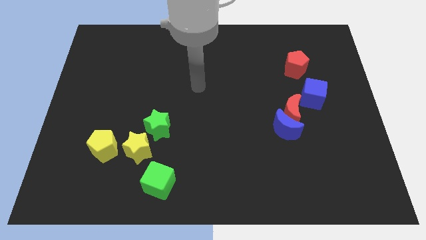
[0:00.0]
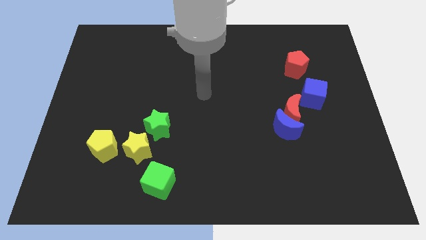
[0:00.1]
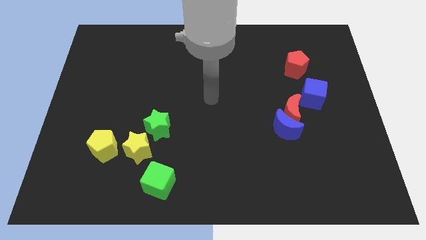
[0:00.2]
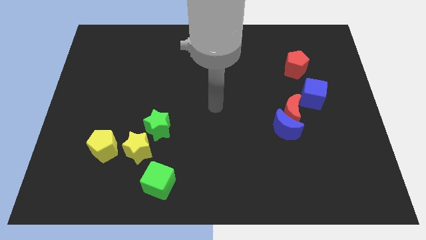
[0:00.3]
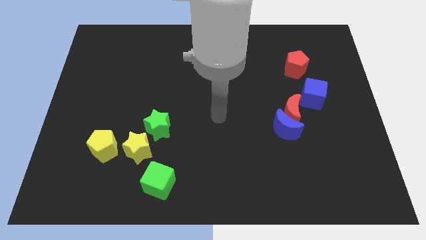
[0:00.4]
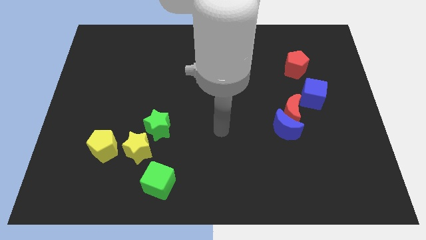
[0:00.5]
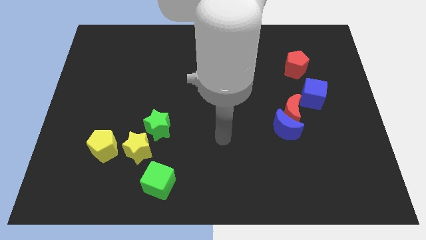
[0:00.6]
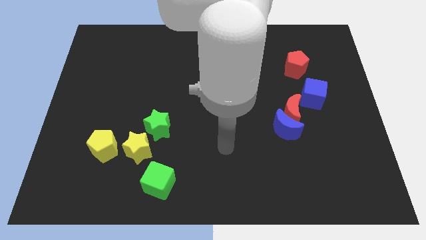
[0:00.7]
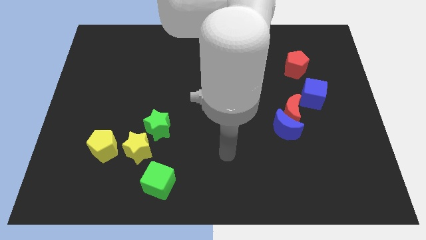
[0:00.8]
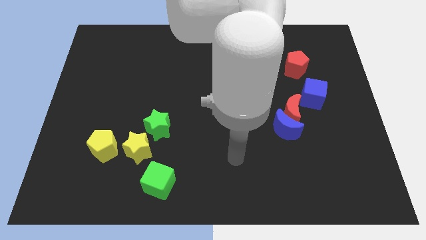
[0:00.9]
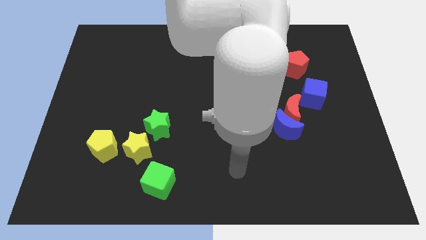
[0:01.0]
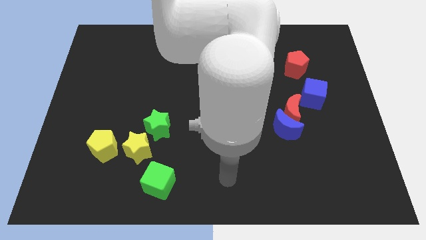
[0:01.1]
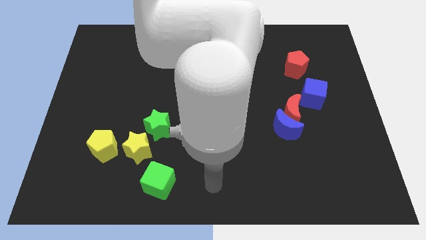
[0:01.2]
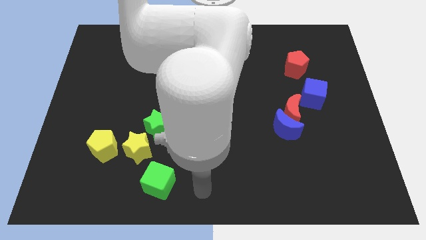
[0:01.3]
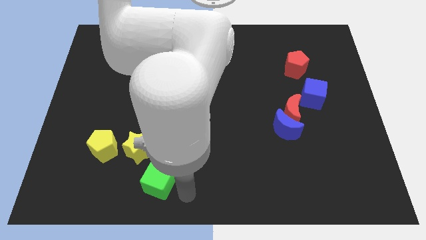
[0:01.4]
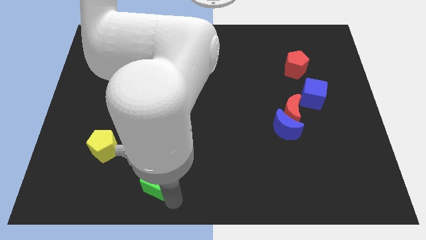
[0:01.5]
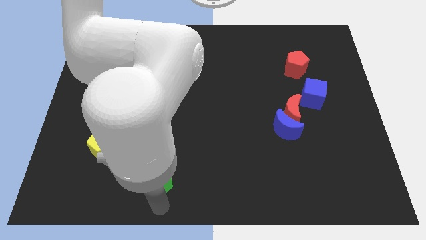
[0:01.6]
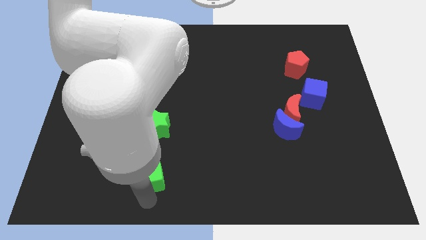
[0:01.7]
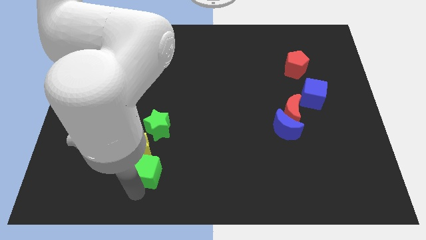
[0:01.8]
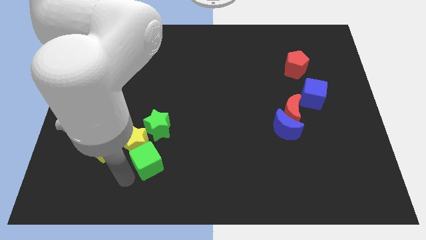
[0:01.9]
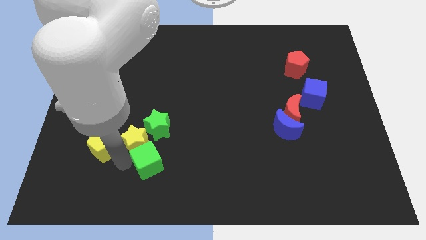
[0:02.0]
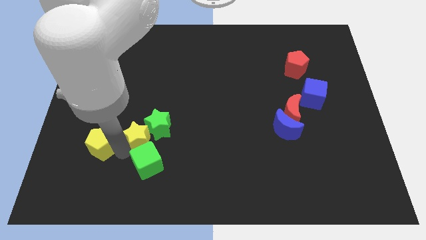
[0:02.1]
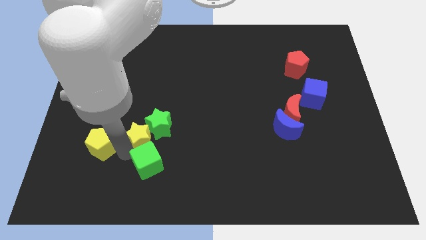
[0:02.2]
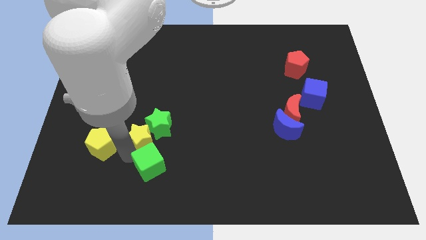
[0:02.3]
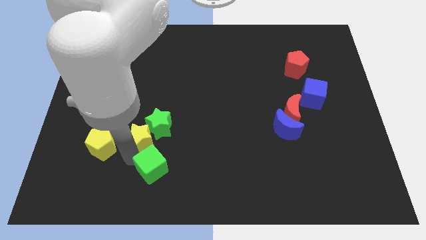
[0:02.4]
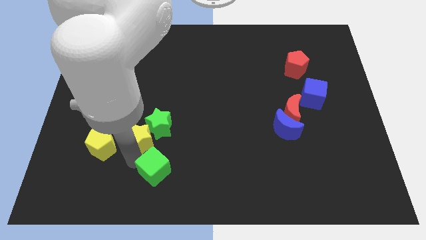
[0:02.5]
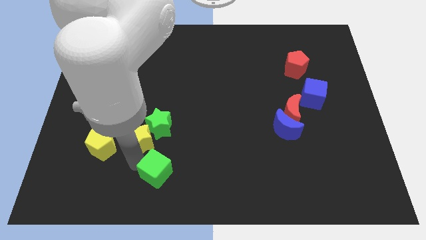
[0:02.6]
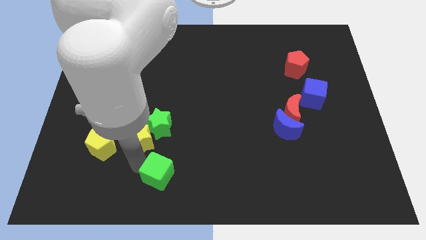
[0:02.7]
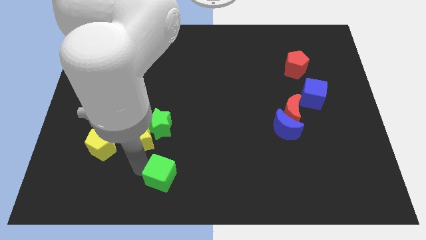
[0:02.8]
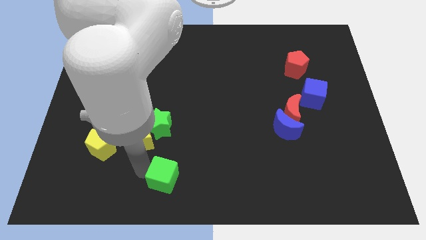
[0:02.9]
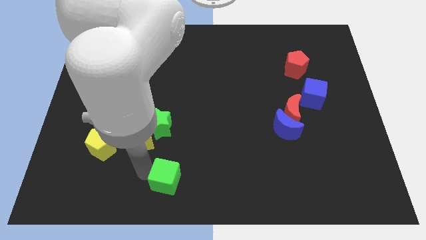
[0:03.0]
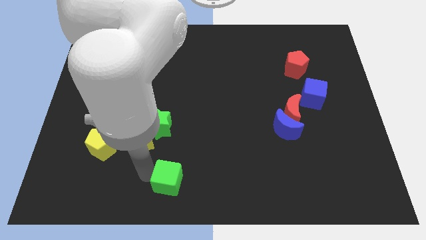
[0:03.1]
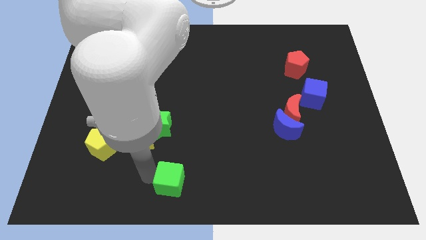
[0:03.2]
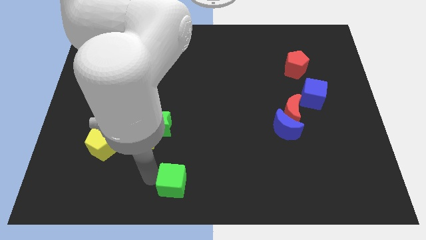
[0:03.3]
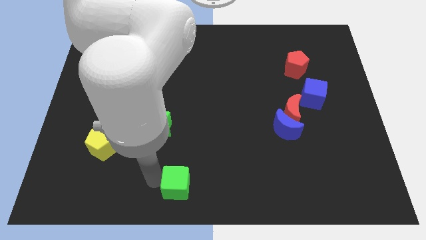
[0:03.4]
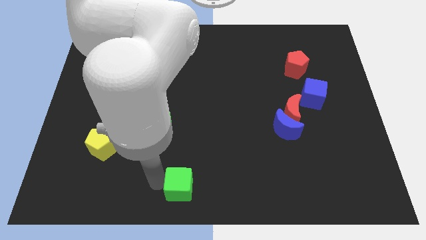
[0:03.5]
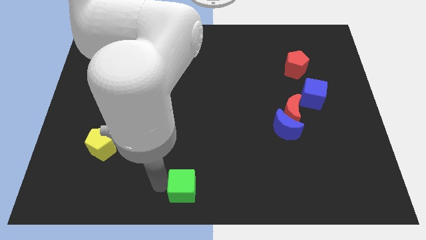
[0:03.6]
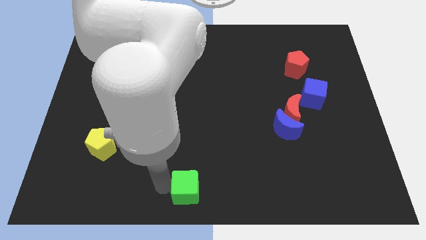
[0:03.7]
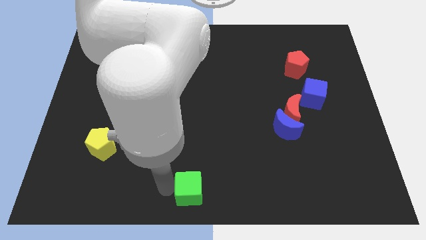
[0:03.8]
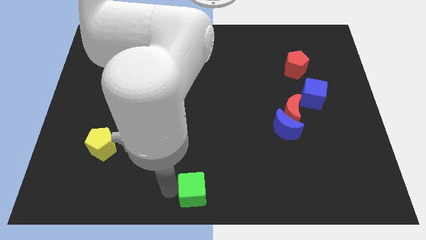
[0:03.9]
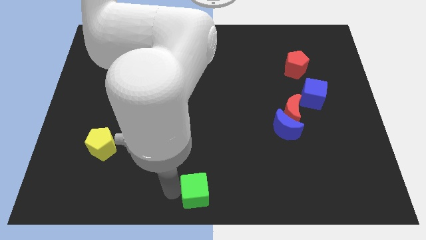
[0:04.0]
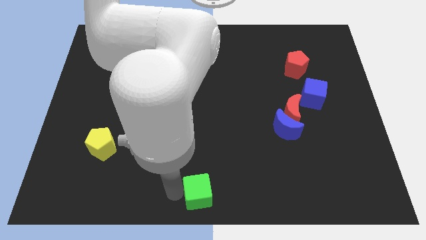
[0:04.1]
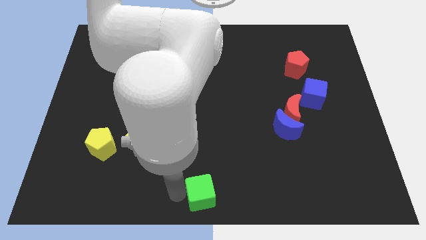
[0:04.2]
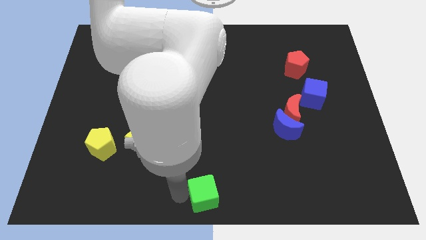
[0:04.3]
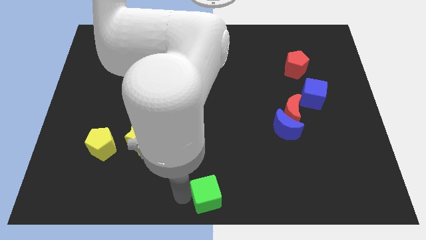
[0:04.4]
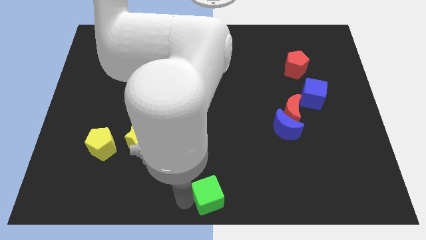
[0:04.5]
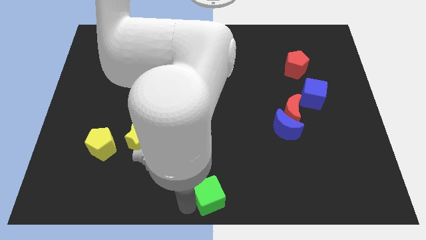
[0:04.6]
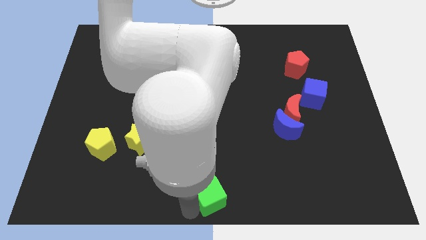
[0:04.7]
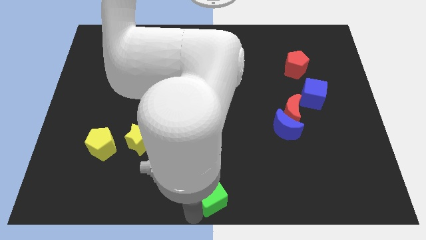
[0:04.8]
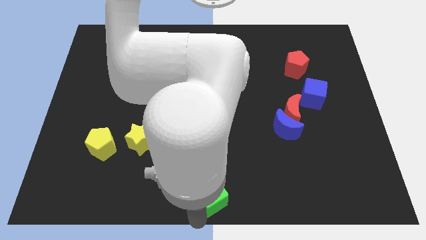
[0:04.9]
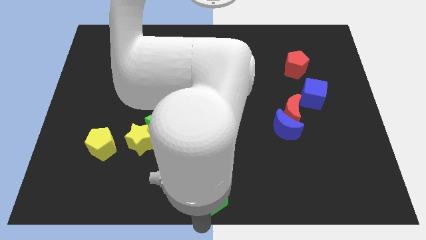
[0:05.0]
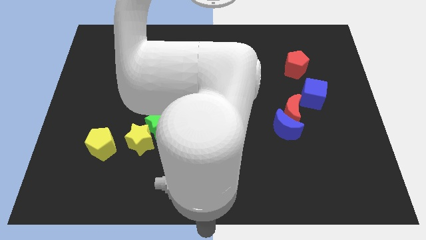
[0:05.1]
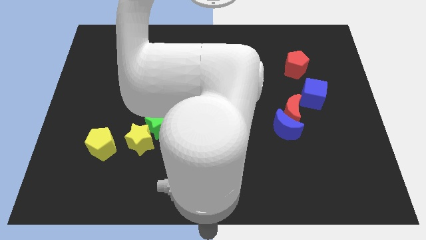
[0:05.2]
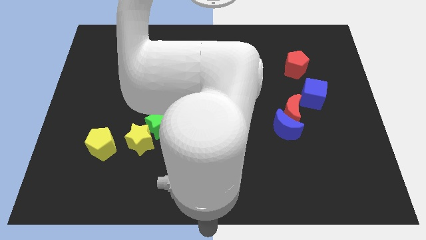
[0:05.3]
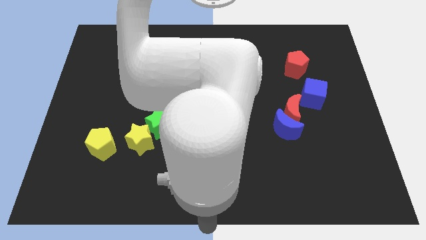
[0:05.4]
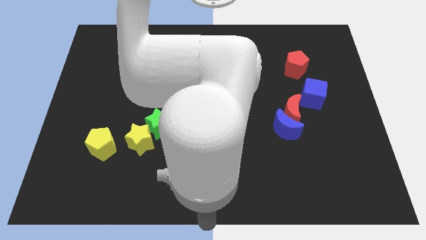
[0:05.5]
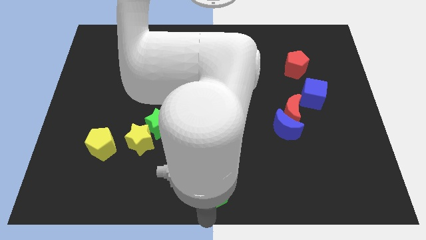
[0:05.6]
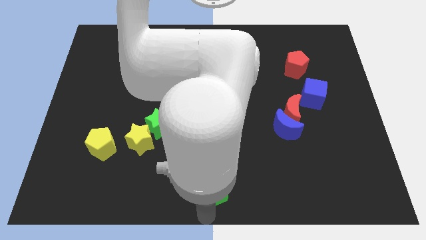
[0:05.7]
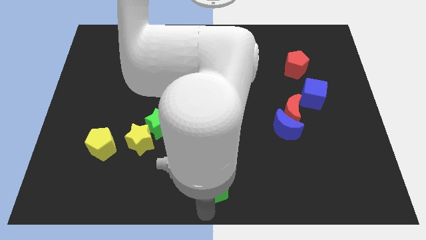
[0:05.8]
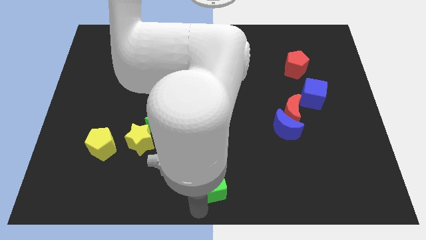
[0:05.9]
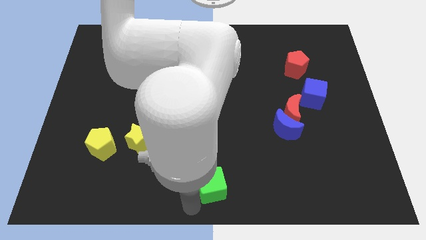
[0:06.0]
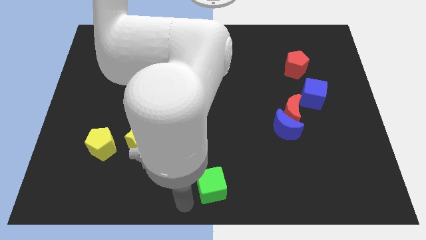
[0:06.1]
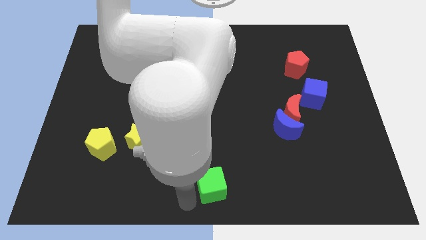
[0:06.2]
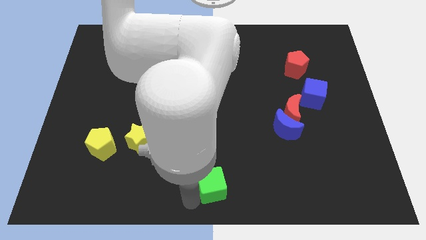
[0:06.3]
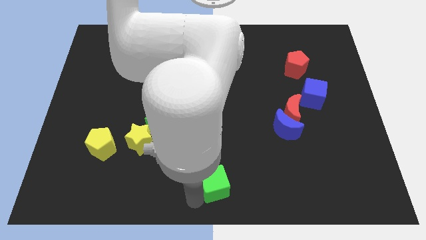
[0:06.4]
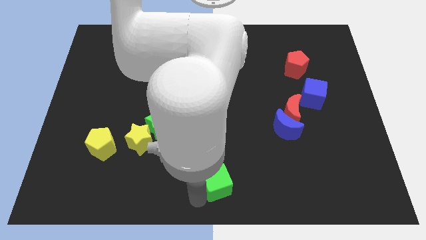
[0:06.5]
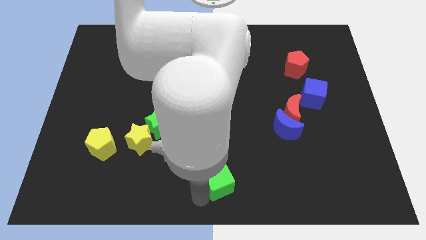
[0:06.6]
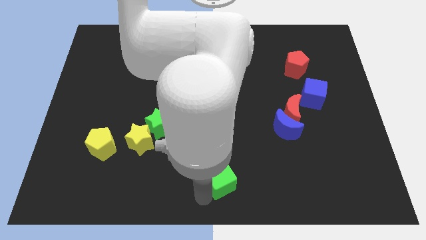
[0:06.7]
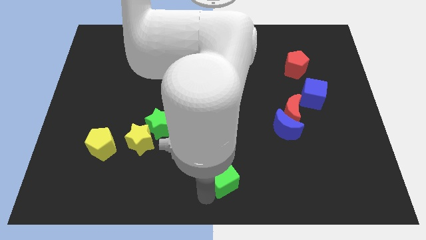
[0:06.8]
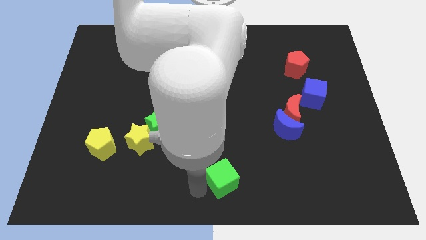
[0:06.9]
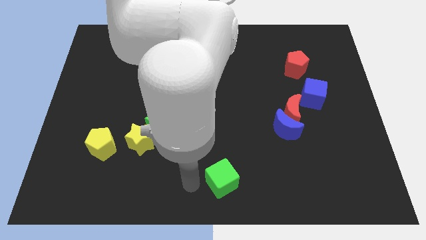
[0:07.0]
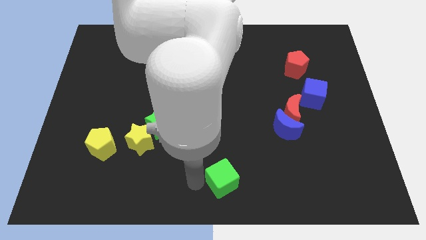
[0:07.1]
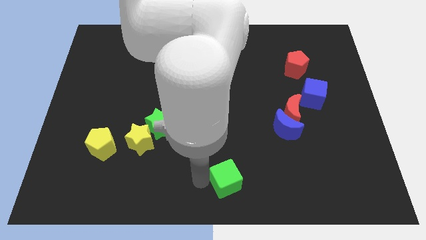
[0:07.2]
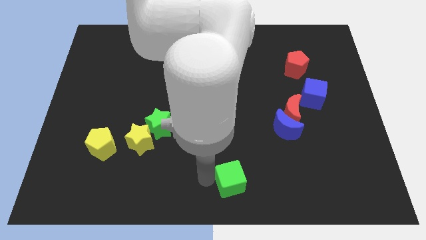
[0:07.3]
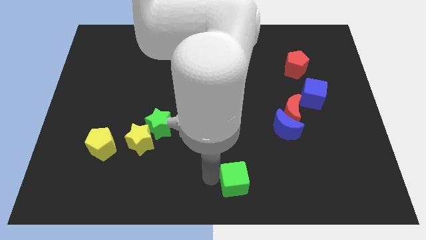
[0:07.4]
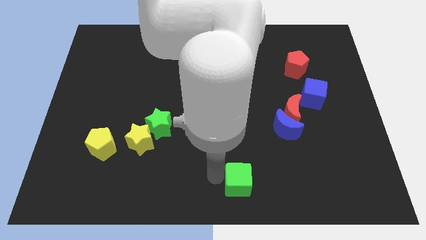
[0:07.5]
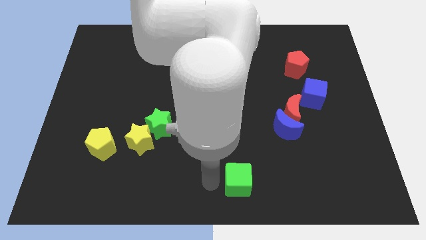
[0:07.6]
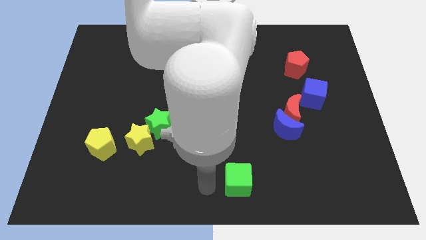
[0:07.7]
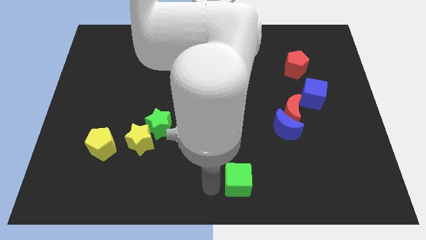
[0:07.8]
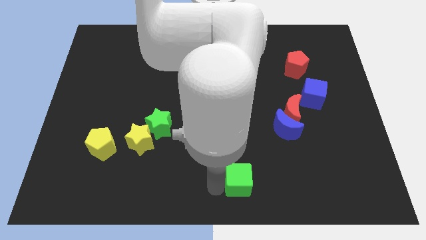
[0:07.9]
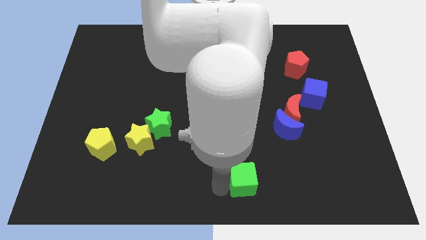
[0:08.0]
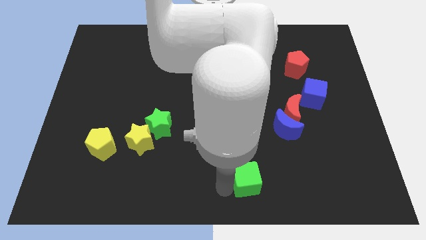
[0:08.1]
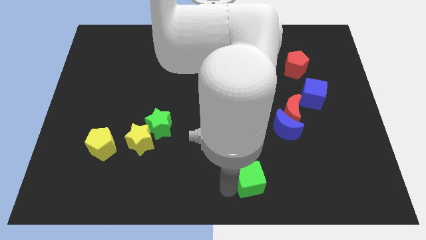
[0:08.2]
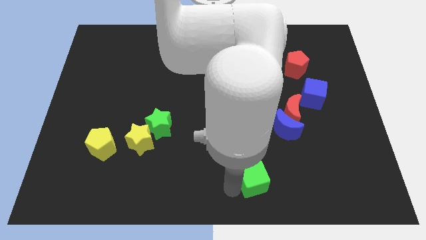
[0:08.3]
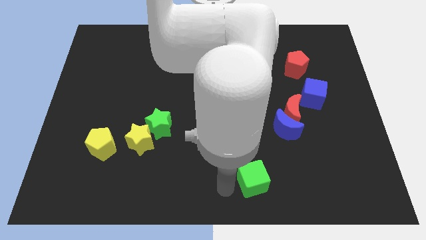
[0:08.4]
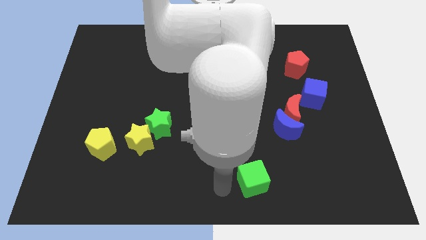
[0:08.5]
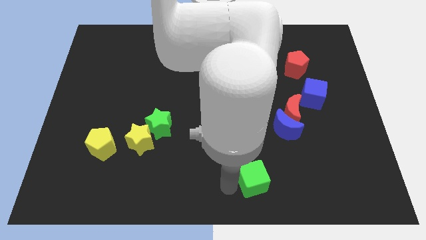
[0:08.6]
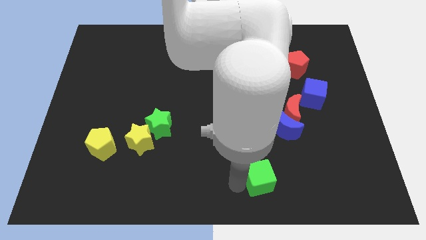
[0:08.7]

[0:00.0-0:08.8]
slide the green cube to the right
